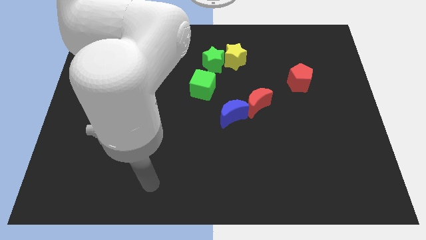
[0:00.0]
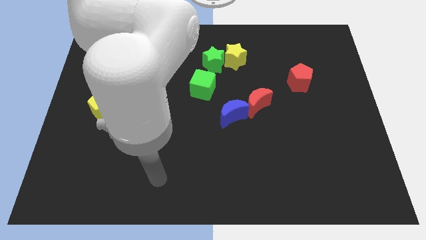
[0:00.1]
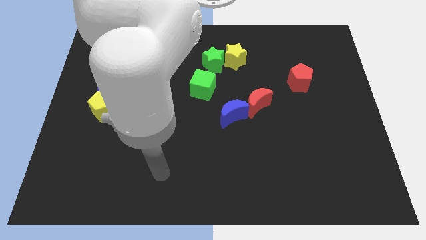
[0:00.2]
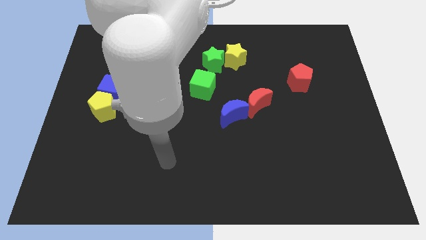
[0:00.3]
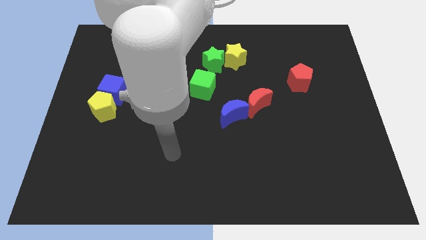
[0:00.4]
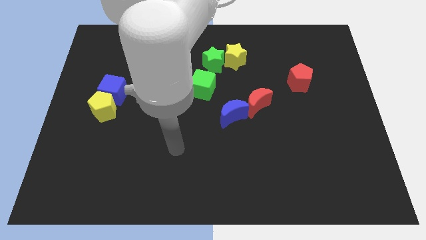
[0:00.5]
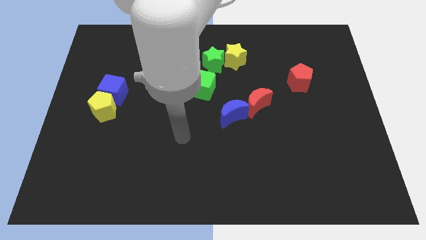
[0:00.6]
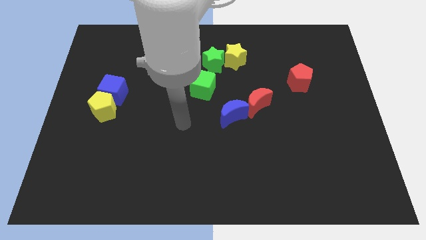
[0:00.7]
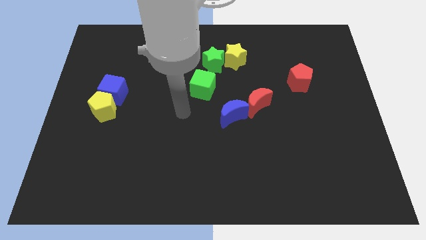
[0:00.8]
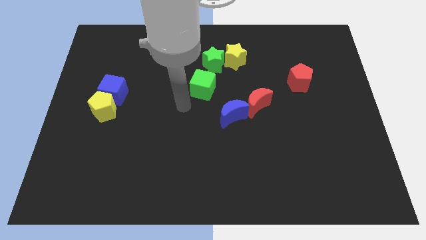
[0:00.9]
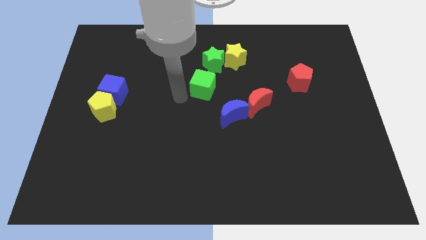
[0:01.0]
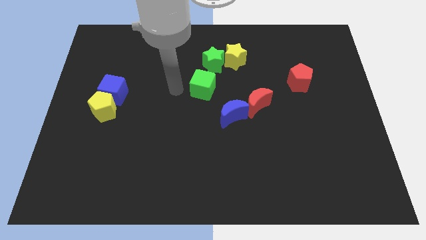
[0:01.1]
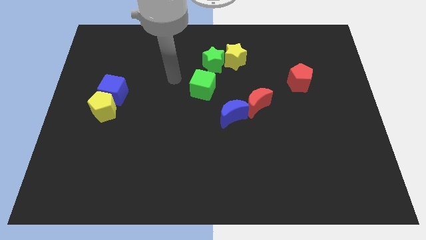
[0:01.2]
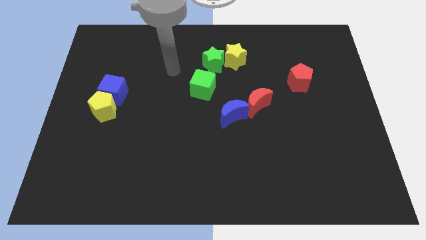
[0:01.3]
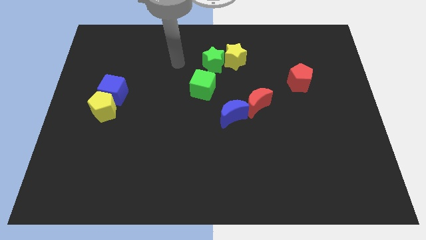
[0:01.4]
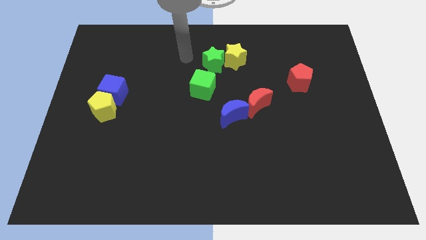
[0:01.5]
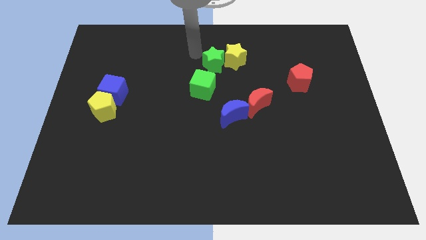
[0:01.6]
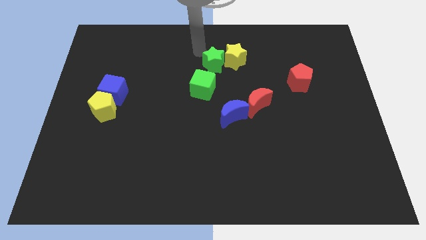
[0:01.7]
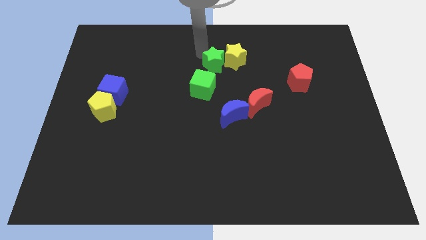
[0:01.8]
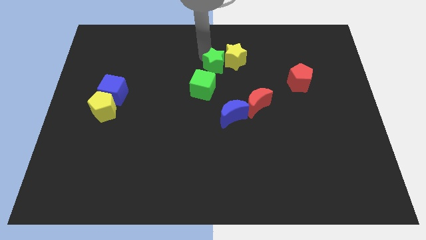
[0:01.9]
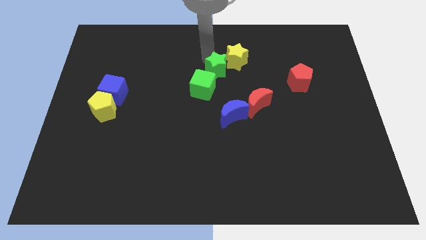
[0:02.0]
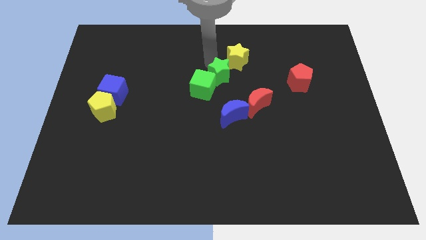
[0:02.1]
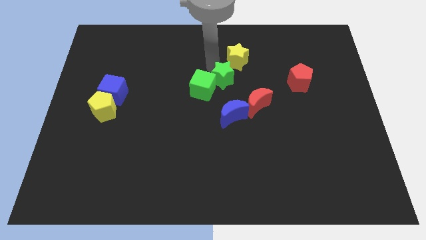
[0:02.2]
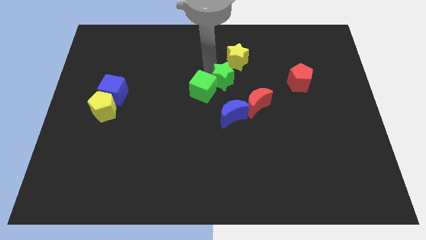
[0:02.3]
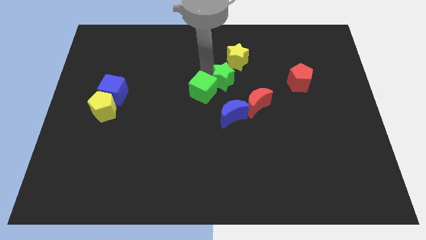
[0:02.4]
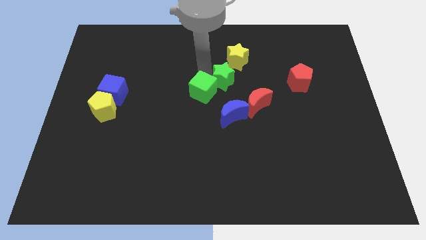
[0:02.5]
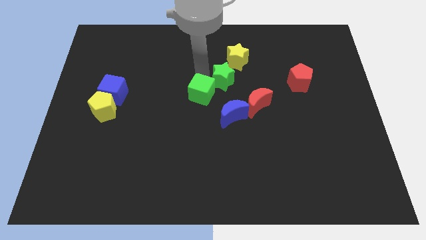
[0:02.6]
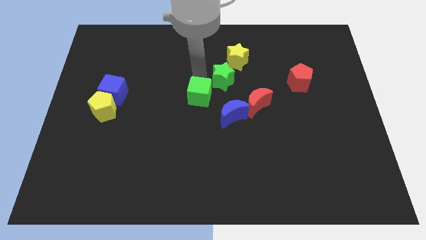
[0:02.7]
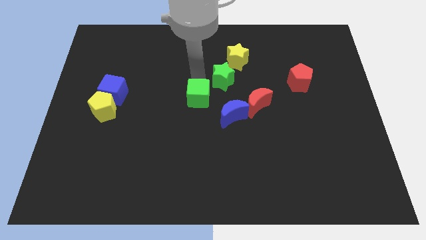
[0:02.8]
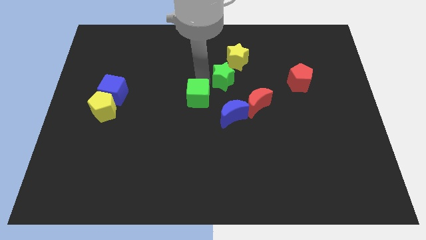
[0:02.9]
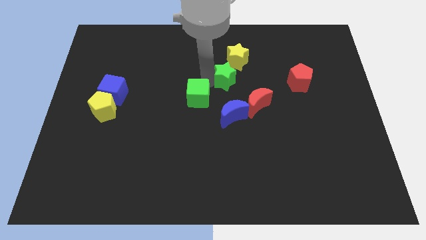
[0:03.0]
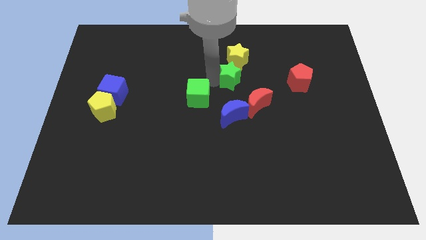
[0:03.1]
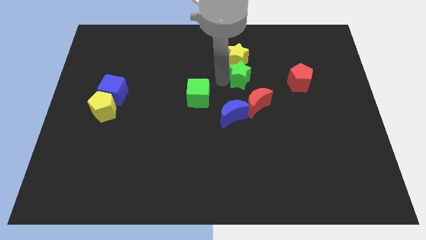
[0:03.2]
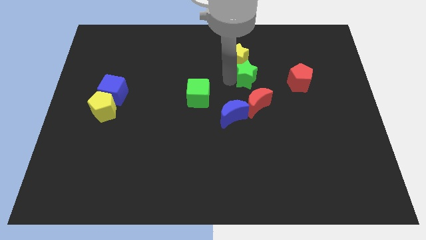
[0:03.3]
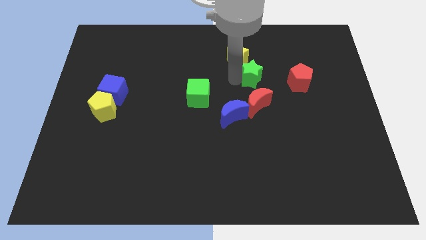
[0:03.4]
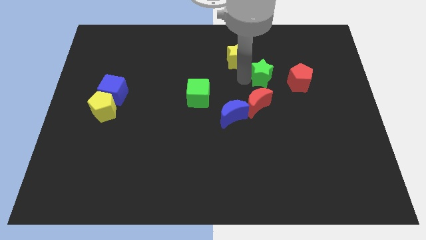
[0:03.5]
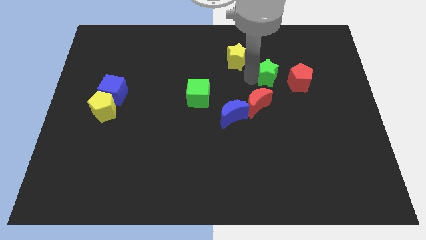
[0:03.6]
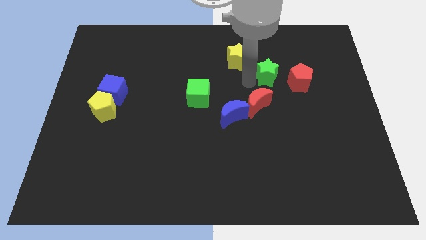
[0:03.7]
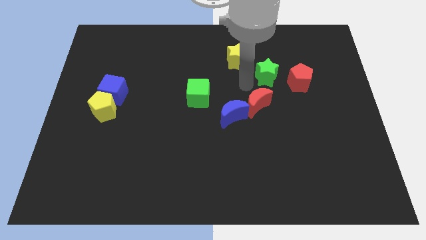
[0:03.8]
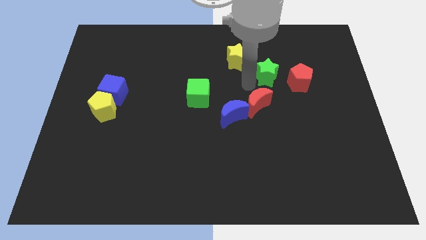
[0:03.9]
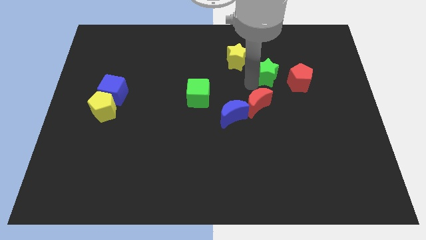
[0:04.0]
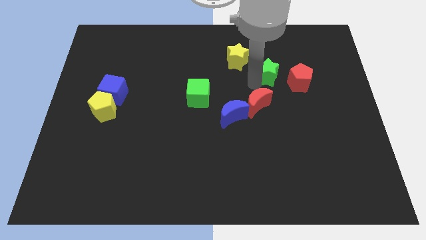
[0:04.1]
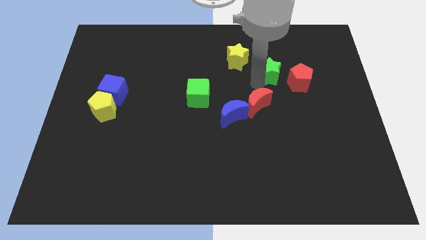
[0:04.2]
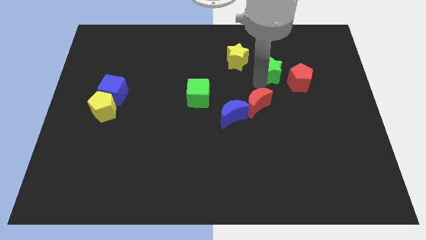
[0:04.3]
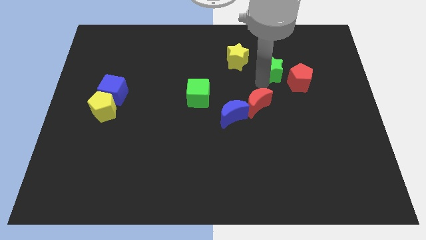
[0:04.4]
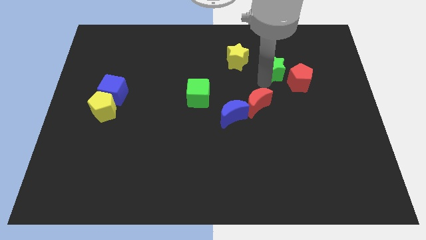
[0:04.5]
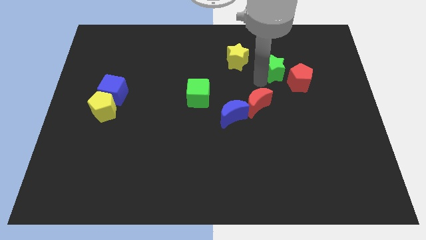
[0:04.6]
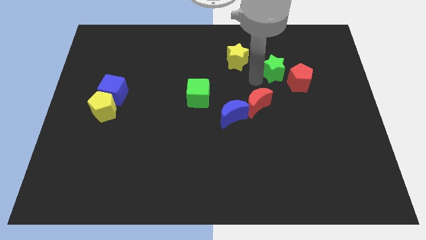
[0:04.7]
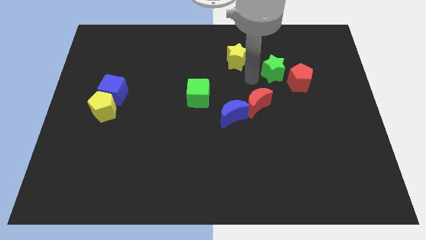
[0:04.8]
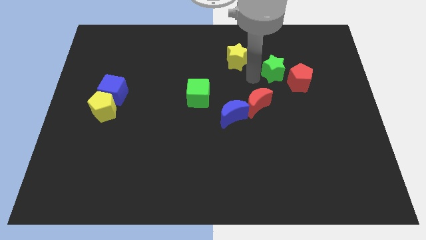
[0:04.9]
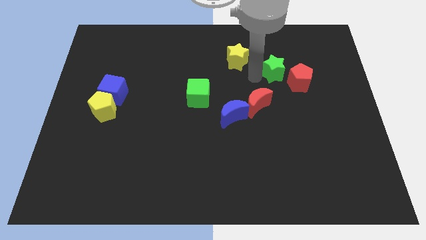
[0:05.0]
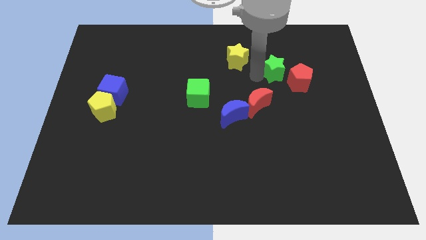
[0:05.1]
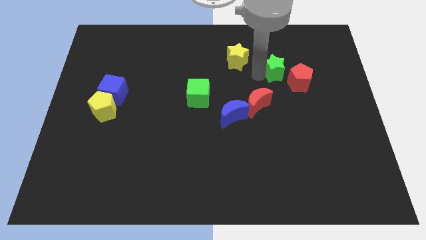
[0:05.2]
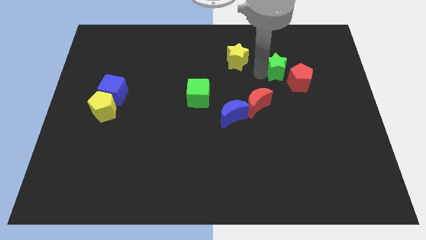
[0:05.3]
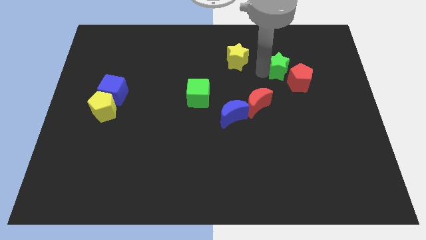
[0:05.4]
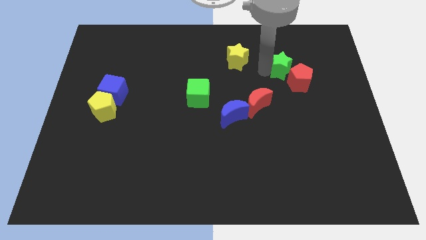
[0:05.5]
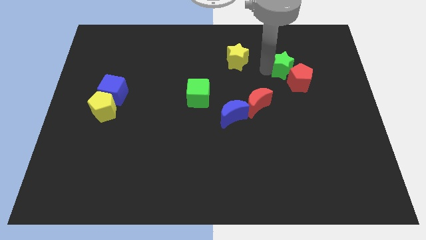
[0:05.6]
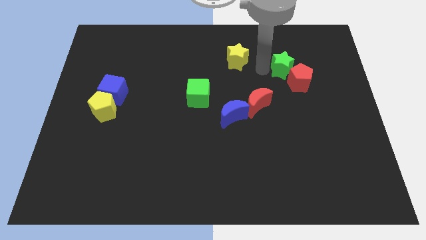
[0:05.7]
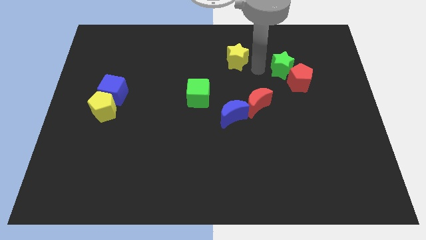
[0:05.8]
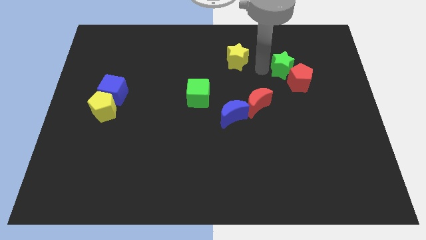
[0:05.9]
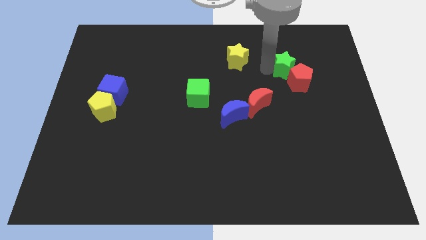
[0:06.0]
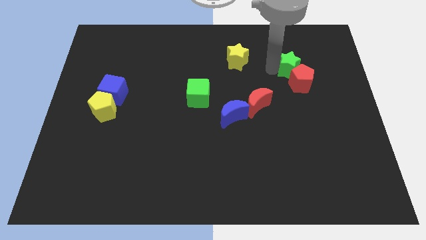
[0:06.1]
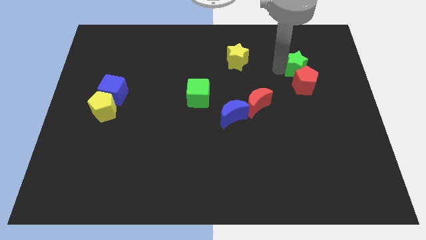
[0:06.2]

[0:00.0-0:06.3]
move the green star to the top right of the red pentagon

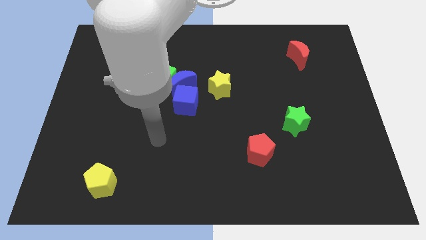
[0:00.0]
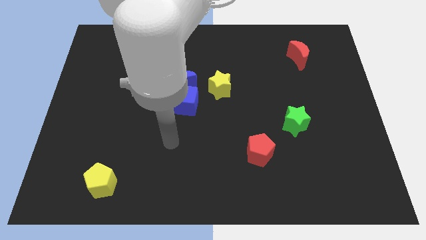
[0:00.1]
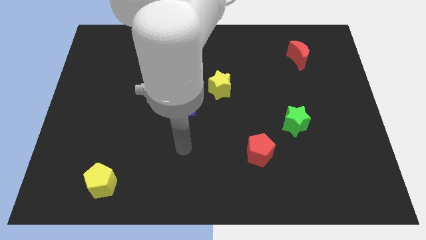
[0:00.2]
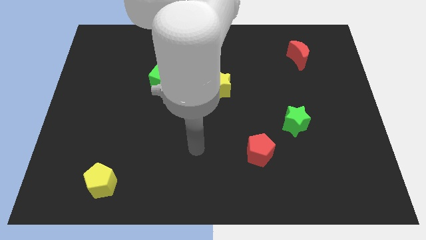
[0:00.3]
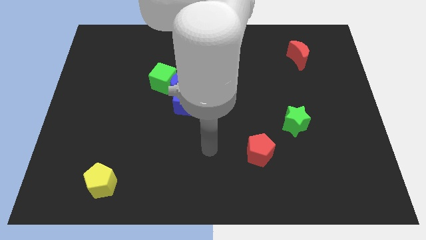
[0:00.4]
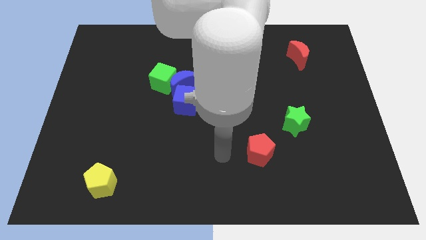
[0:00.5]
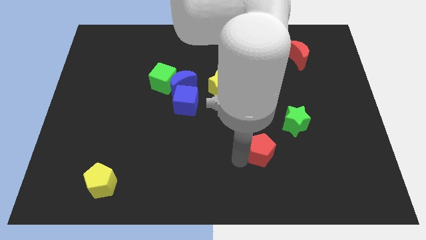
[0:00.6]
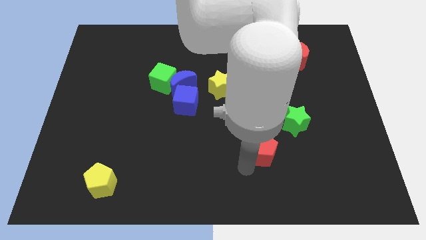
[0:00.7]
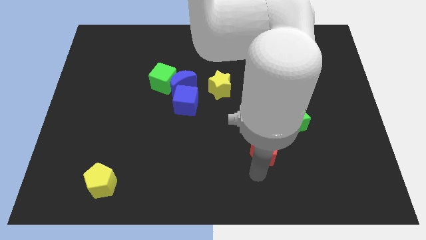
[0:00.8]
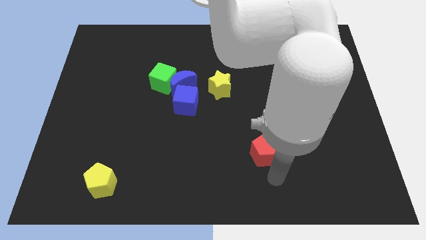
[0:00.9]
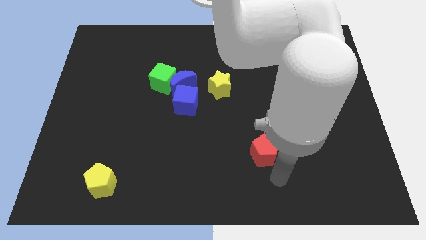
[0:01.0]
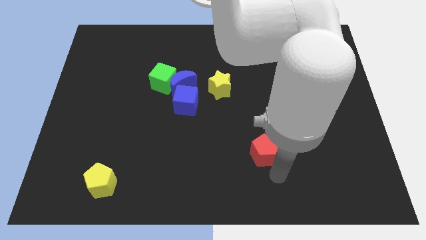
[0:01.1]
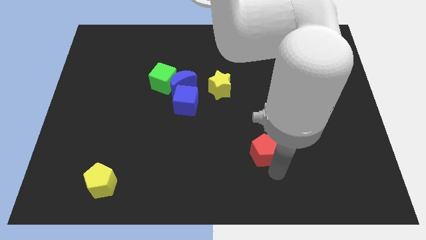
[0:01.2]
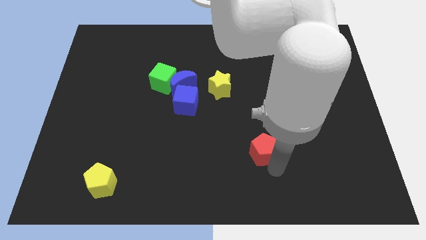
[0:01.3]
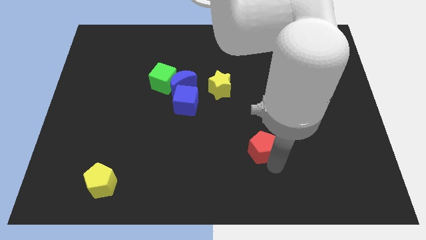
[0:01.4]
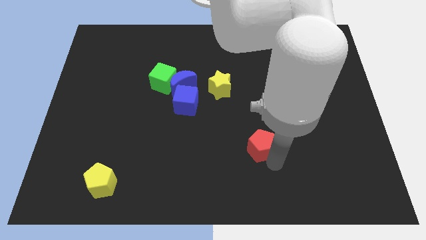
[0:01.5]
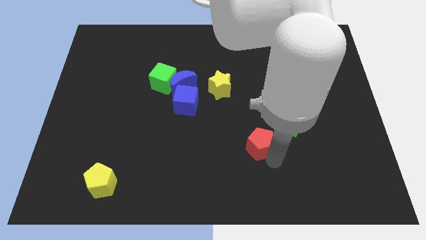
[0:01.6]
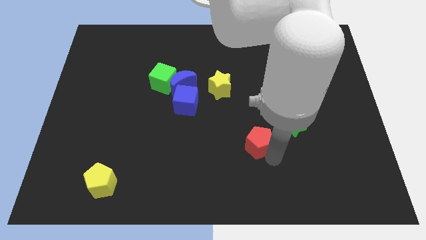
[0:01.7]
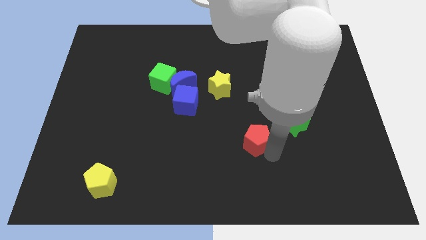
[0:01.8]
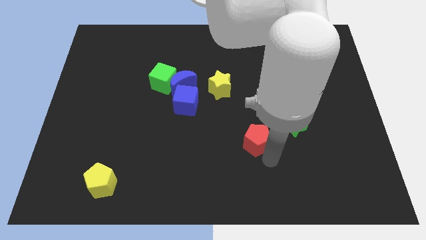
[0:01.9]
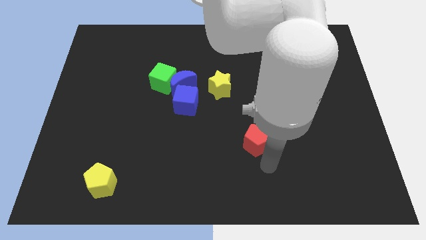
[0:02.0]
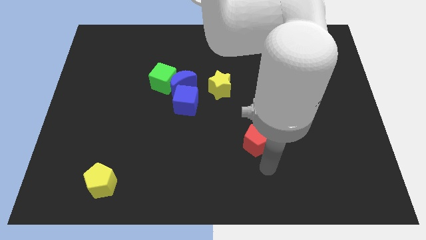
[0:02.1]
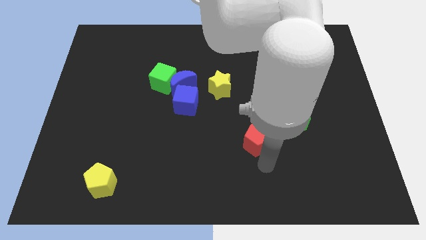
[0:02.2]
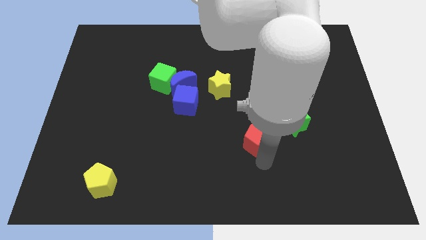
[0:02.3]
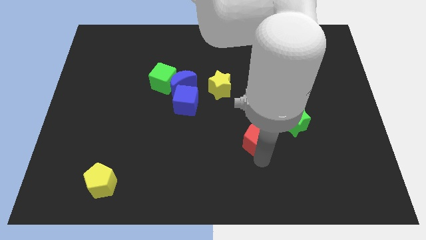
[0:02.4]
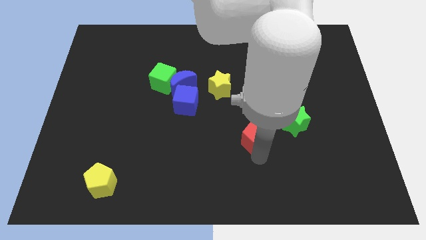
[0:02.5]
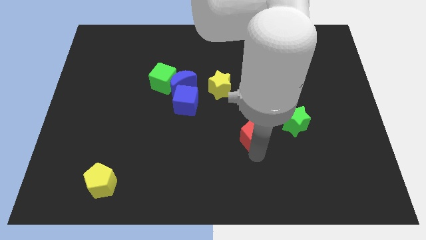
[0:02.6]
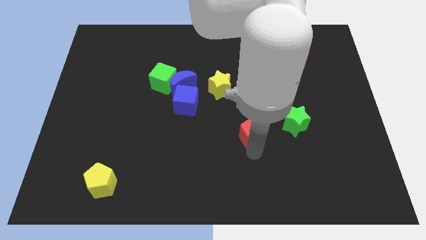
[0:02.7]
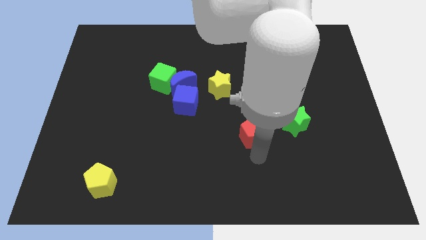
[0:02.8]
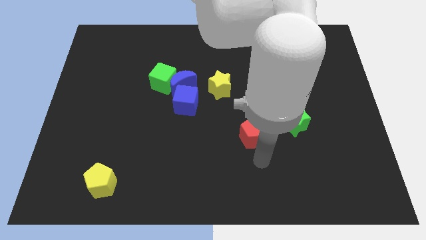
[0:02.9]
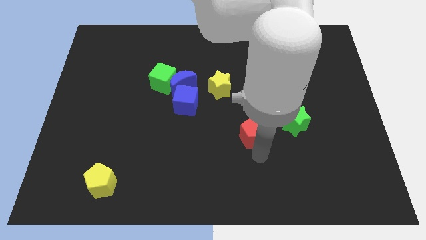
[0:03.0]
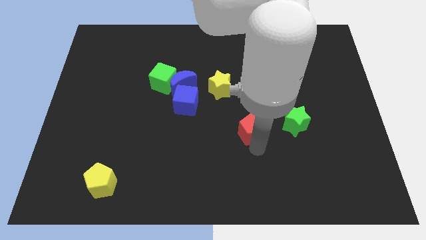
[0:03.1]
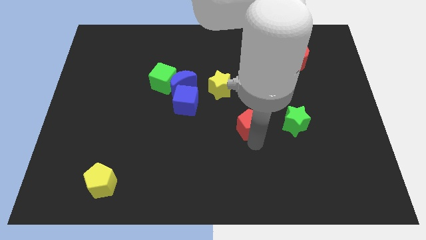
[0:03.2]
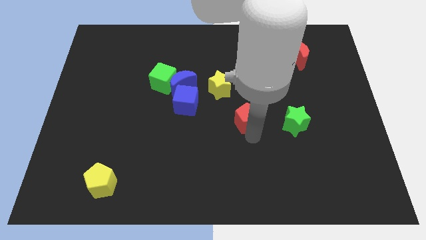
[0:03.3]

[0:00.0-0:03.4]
push the red pentagon to the bottom right of the yellow star
